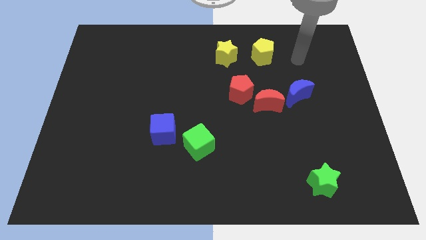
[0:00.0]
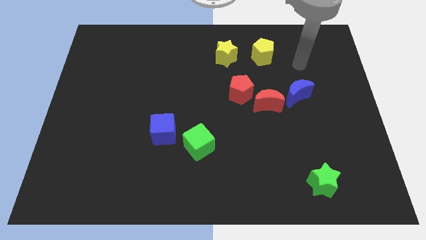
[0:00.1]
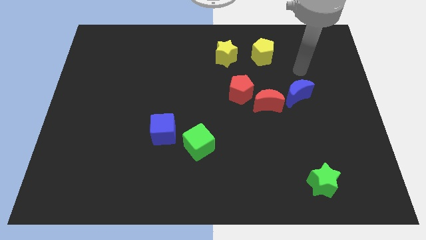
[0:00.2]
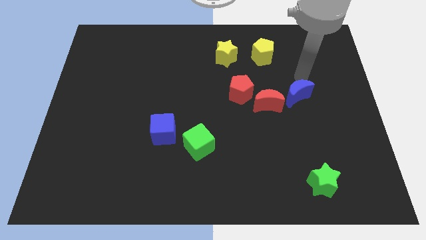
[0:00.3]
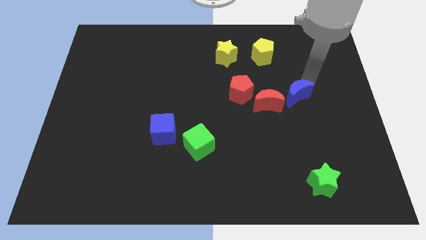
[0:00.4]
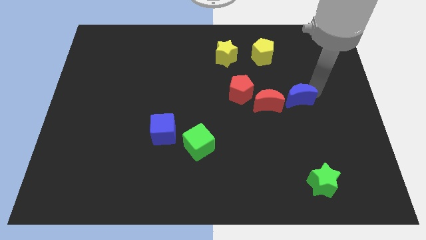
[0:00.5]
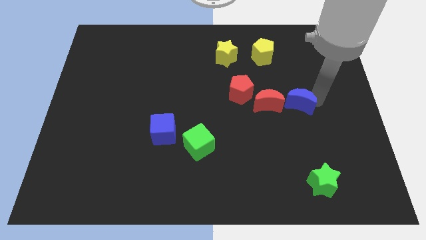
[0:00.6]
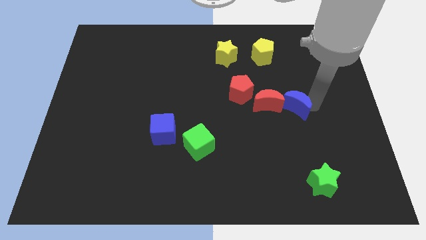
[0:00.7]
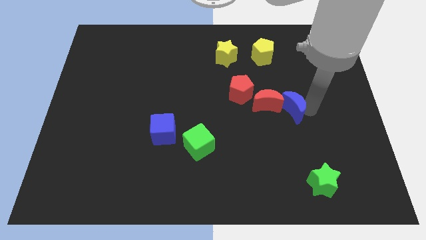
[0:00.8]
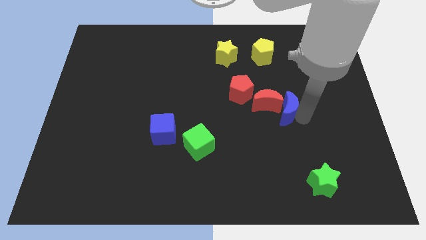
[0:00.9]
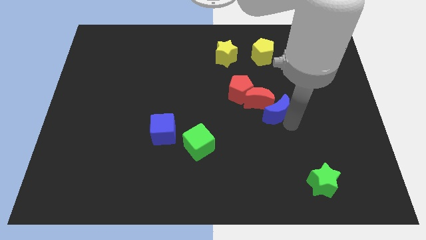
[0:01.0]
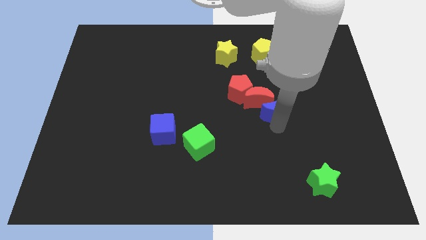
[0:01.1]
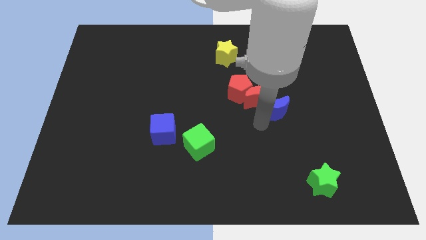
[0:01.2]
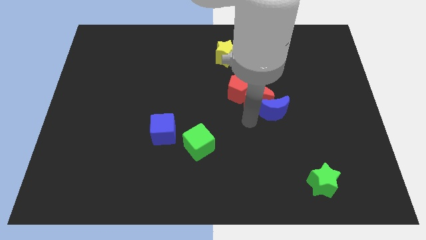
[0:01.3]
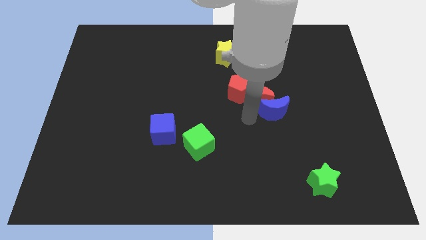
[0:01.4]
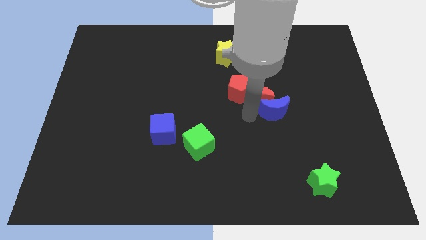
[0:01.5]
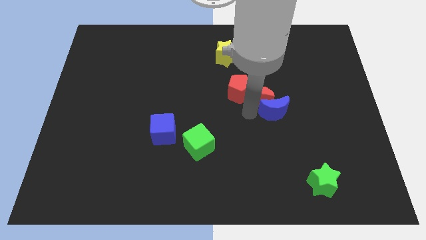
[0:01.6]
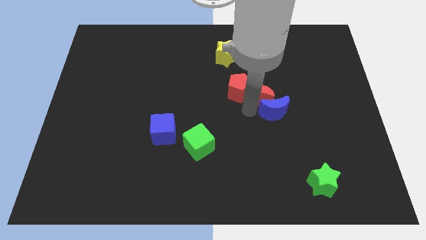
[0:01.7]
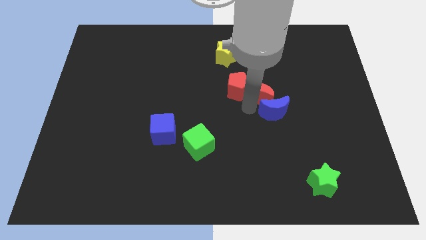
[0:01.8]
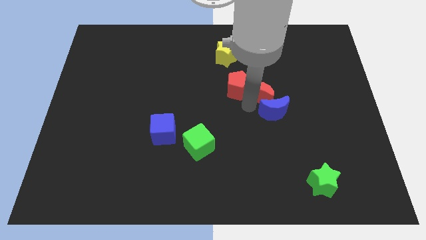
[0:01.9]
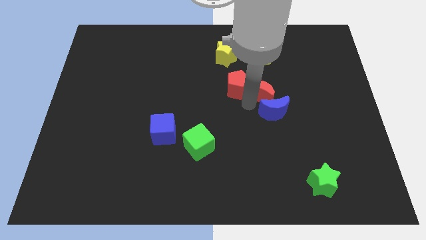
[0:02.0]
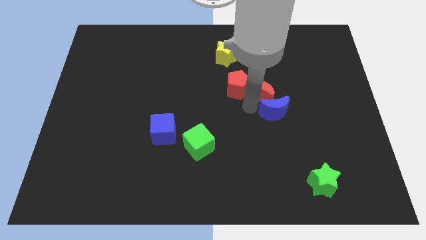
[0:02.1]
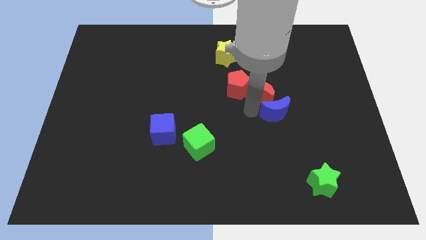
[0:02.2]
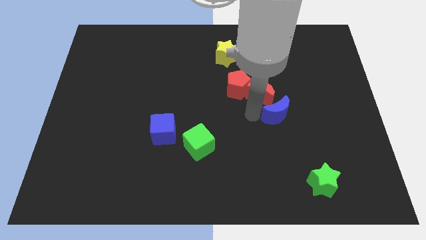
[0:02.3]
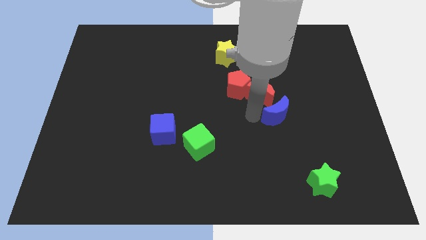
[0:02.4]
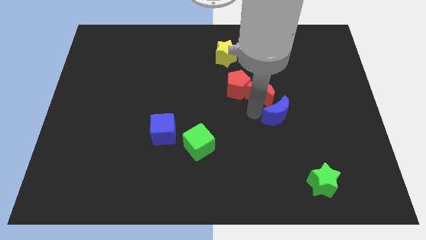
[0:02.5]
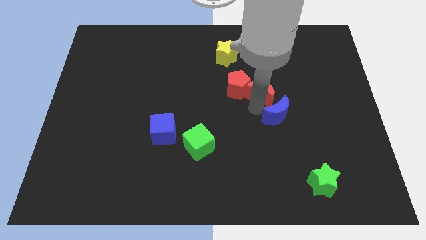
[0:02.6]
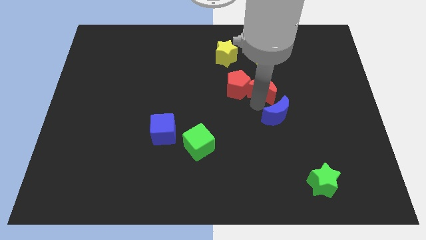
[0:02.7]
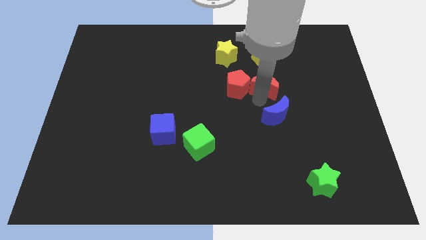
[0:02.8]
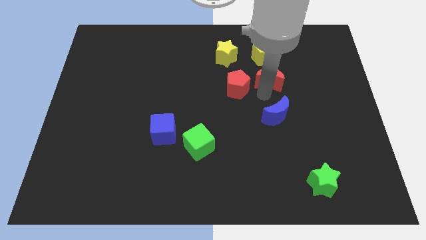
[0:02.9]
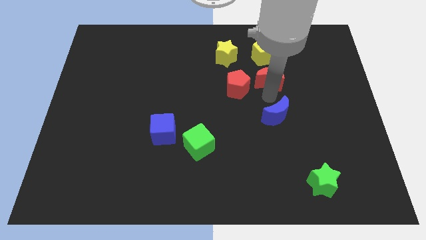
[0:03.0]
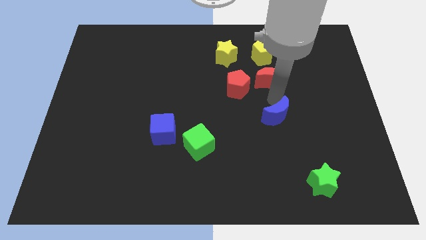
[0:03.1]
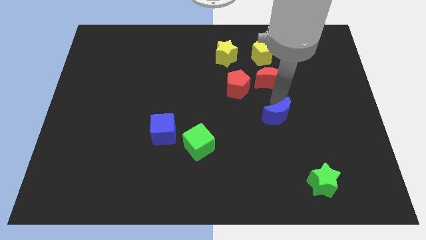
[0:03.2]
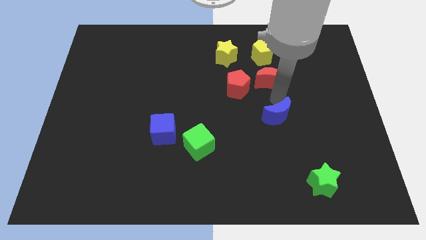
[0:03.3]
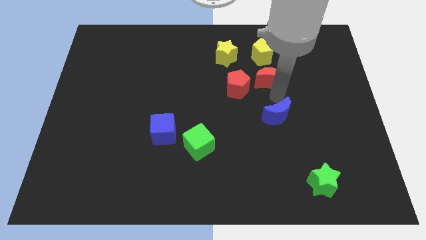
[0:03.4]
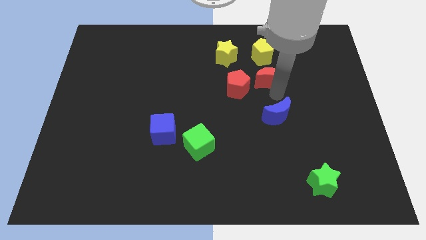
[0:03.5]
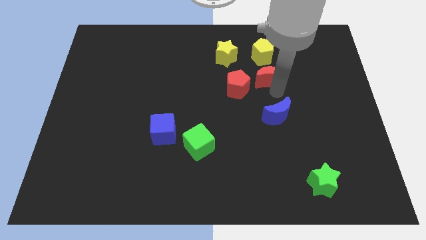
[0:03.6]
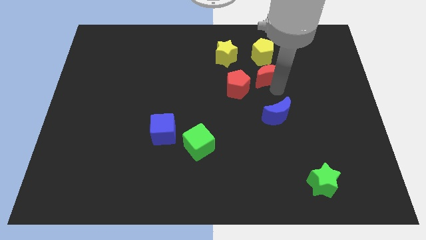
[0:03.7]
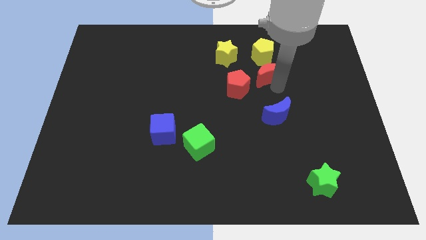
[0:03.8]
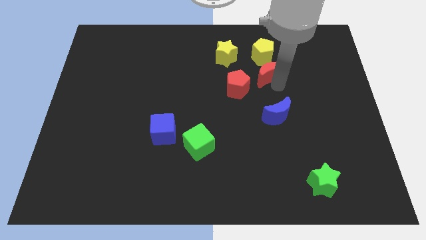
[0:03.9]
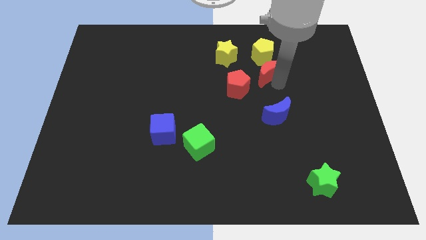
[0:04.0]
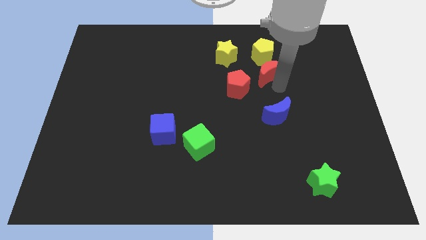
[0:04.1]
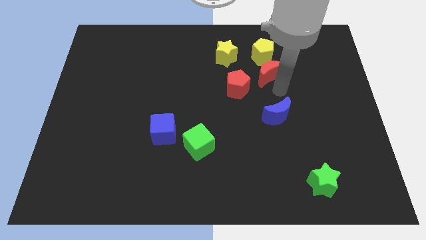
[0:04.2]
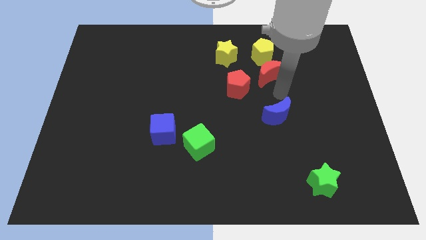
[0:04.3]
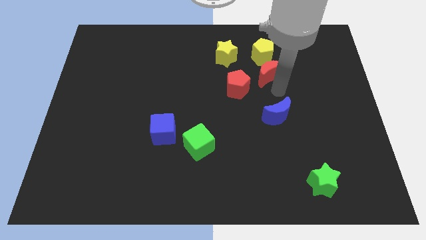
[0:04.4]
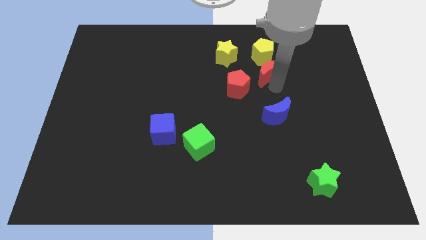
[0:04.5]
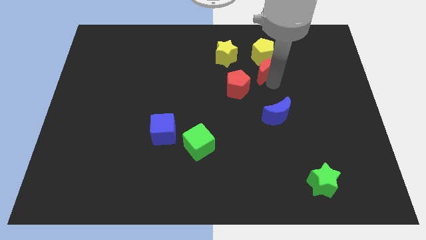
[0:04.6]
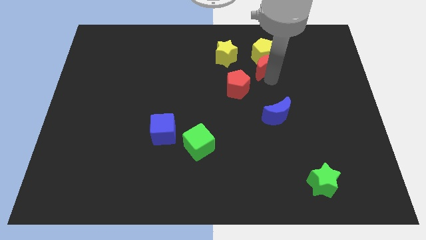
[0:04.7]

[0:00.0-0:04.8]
move the red moon close to the yellow pentagon

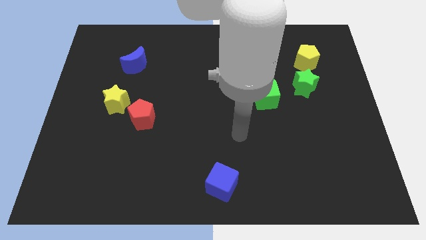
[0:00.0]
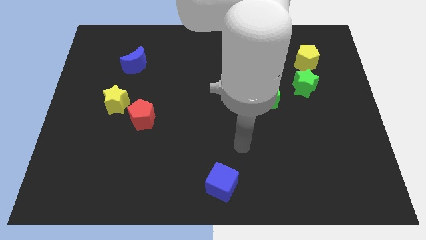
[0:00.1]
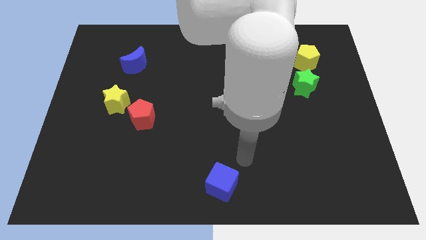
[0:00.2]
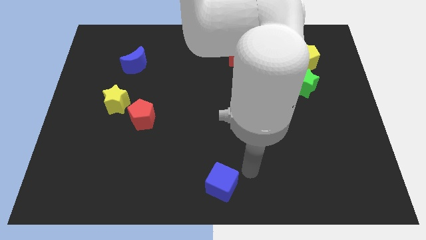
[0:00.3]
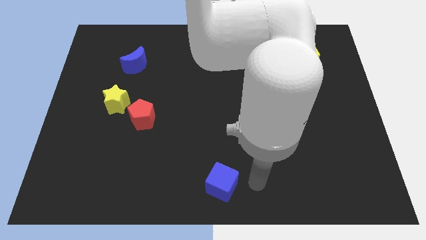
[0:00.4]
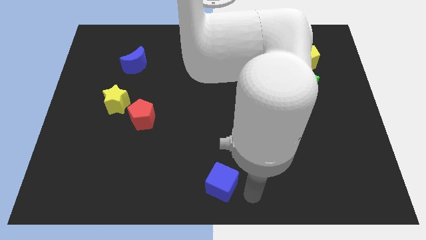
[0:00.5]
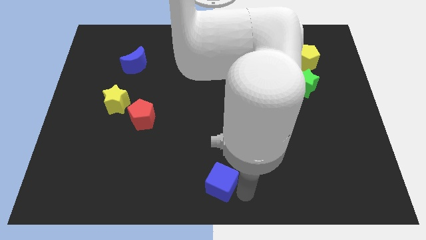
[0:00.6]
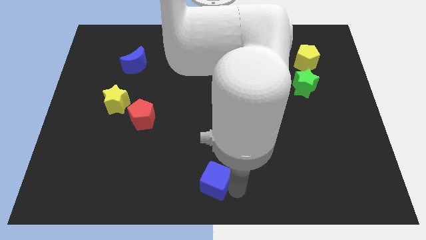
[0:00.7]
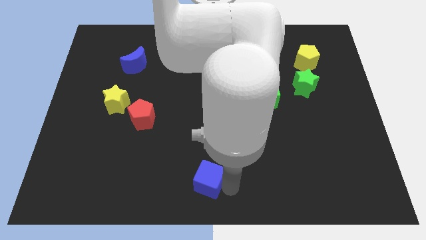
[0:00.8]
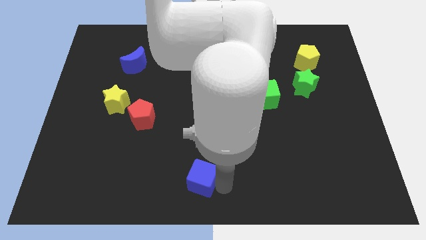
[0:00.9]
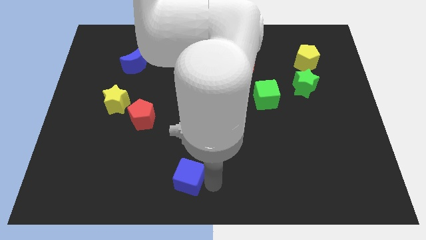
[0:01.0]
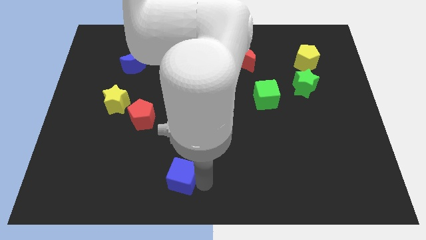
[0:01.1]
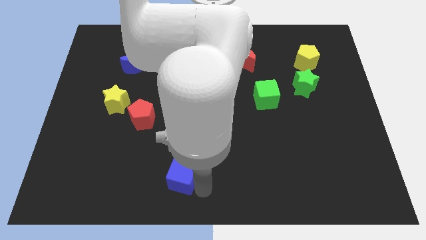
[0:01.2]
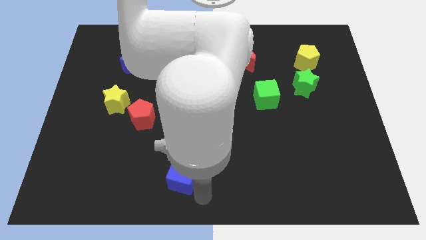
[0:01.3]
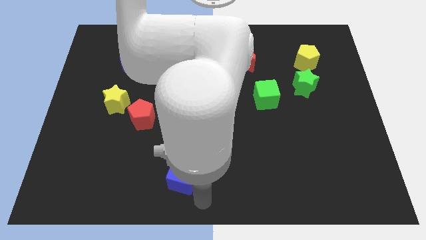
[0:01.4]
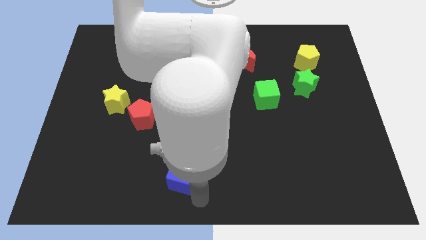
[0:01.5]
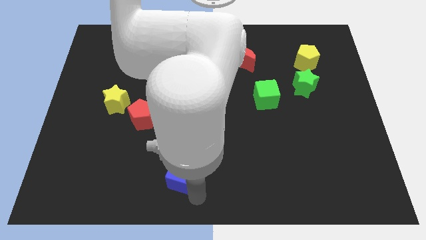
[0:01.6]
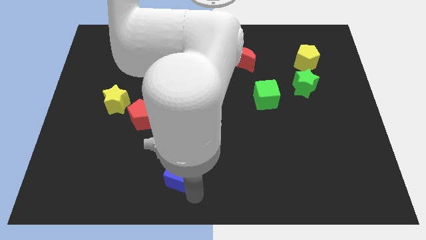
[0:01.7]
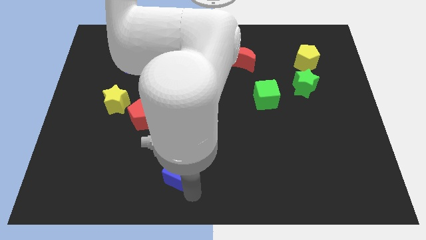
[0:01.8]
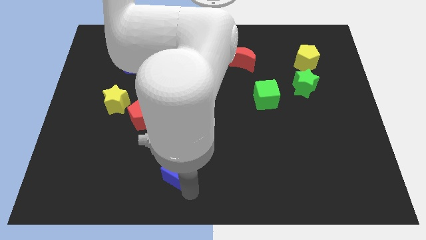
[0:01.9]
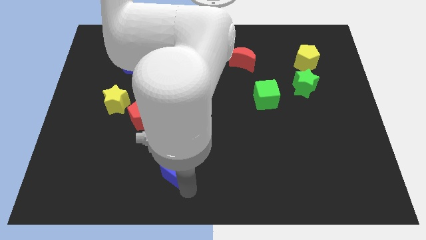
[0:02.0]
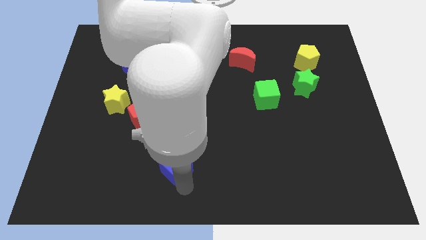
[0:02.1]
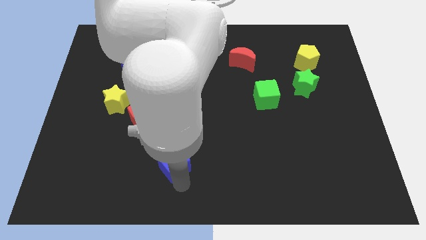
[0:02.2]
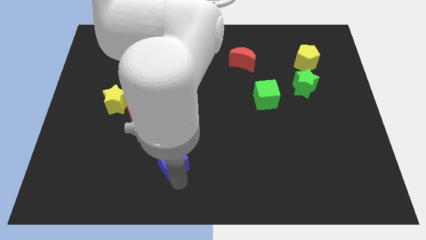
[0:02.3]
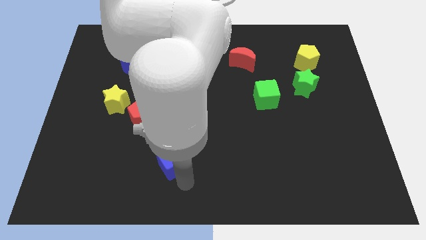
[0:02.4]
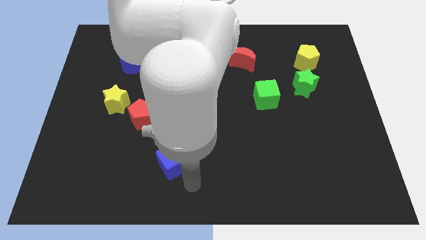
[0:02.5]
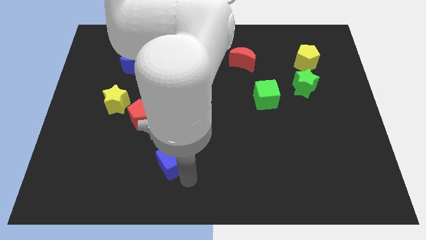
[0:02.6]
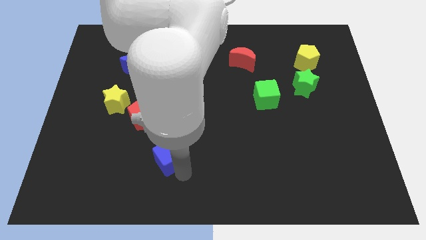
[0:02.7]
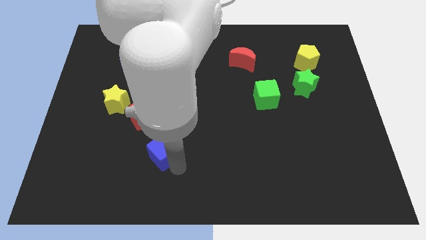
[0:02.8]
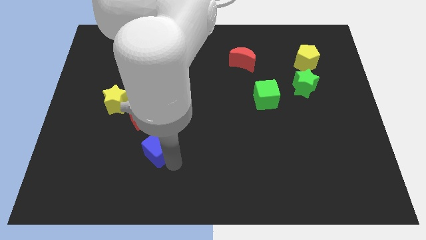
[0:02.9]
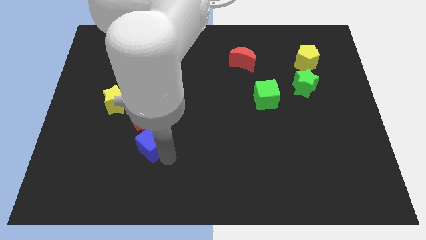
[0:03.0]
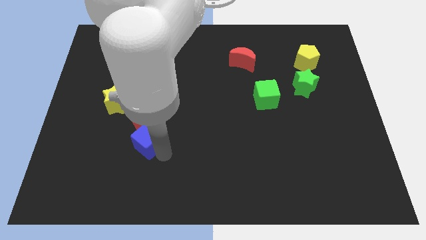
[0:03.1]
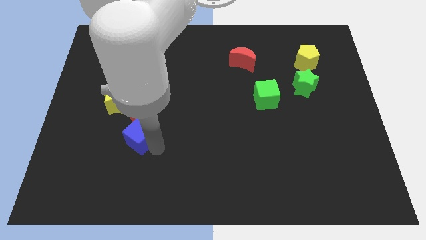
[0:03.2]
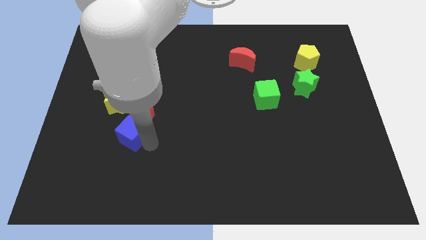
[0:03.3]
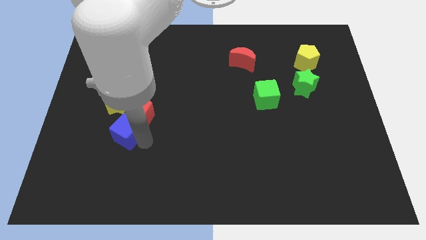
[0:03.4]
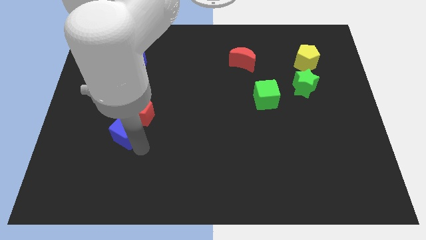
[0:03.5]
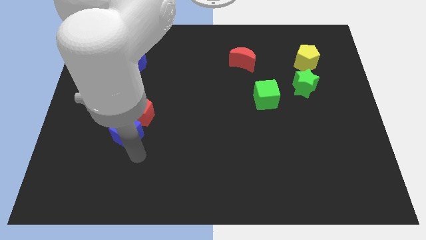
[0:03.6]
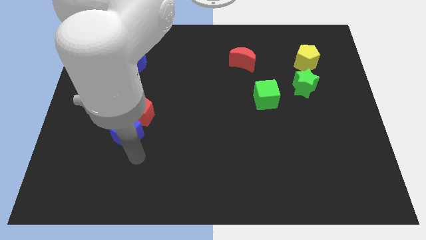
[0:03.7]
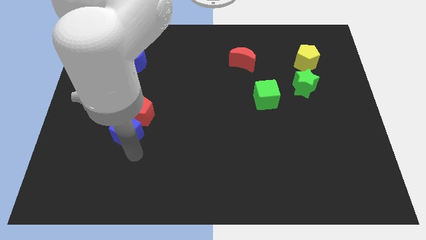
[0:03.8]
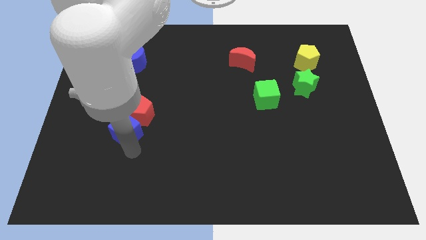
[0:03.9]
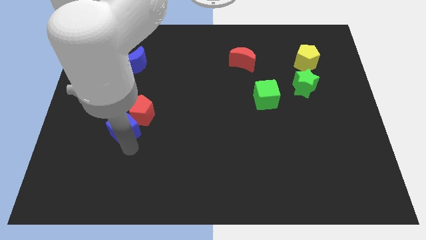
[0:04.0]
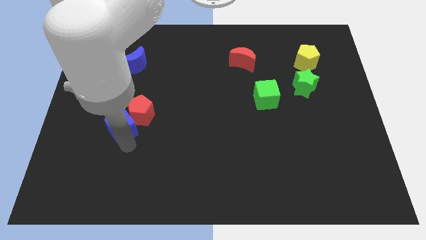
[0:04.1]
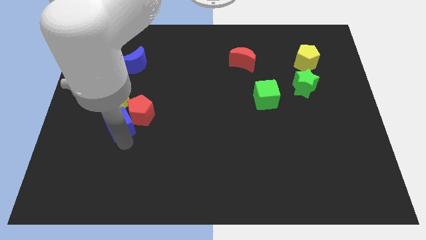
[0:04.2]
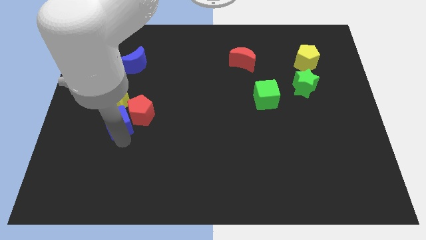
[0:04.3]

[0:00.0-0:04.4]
put the blue cube next to the yellow star
